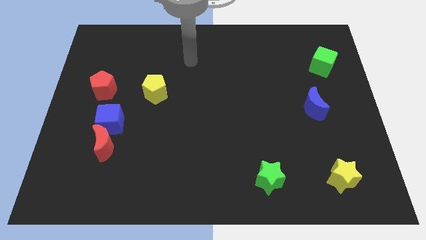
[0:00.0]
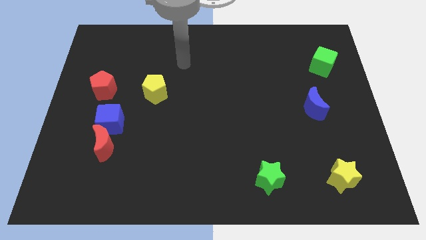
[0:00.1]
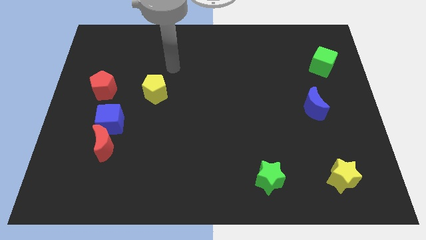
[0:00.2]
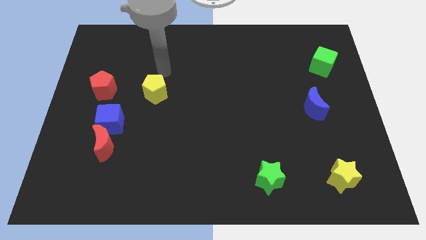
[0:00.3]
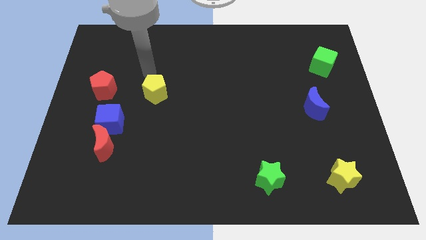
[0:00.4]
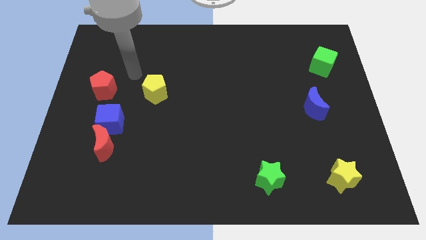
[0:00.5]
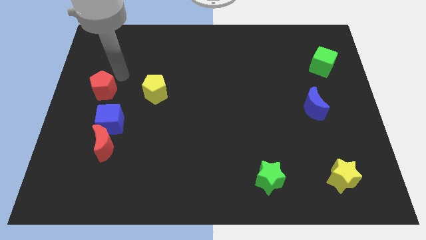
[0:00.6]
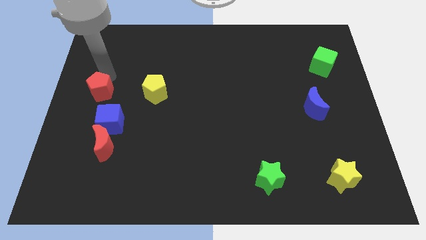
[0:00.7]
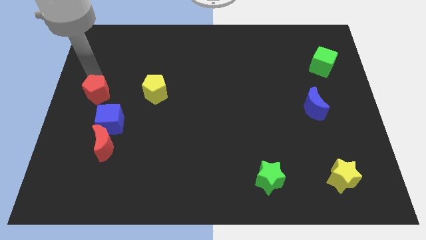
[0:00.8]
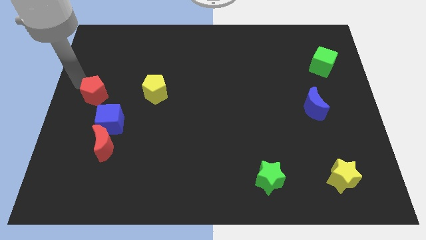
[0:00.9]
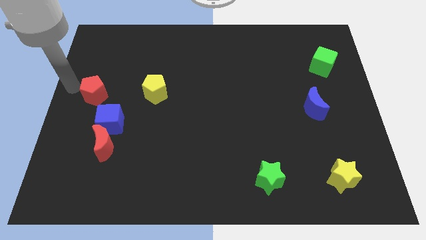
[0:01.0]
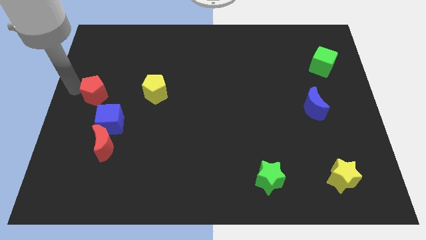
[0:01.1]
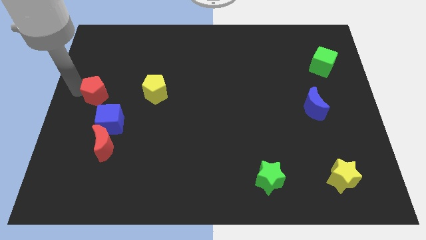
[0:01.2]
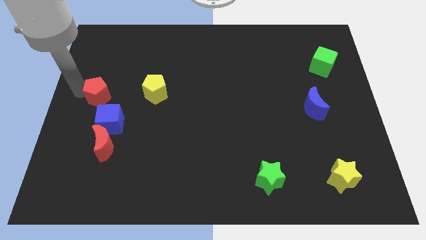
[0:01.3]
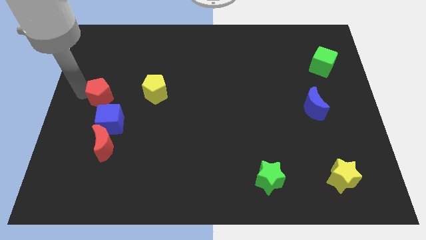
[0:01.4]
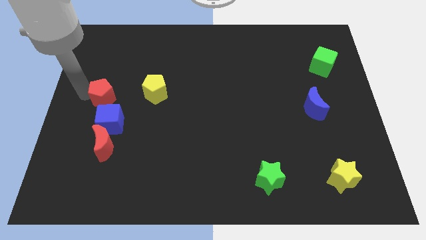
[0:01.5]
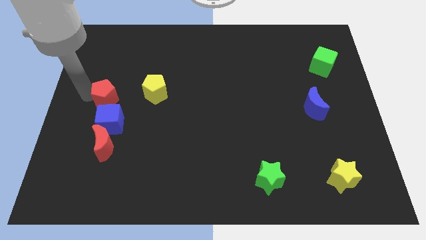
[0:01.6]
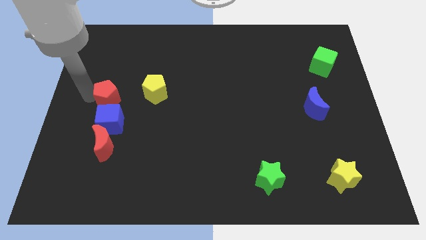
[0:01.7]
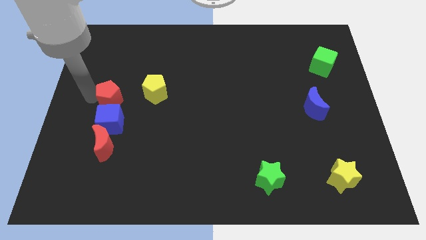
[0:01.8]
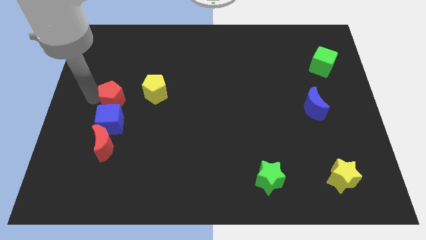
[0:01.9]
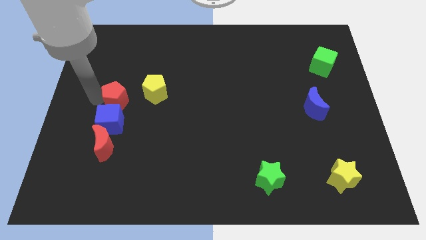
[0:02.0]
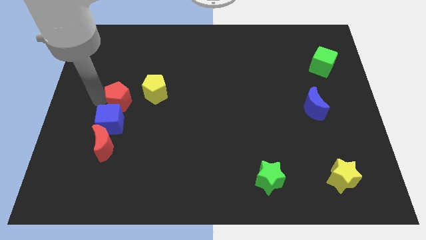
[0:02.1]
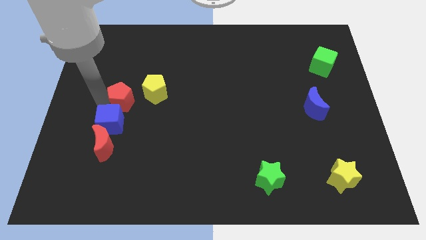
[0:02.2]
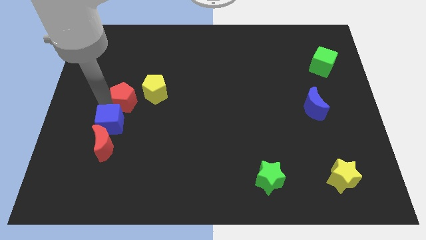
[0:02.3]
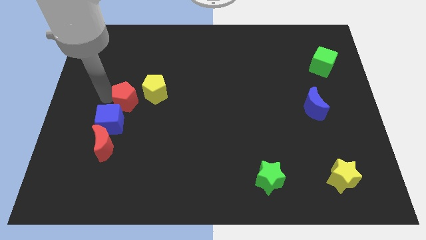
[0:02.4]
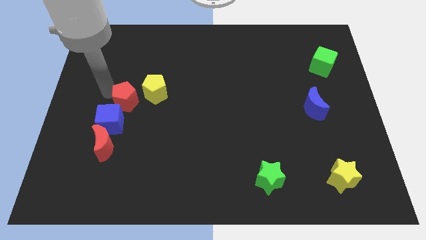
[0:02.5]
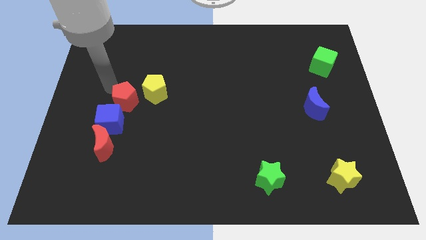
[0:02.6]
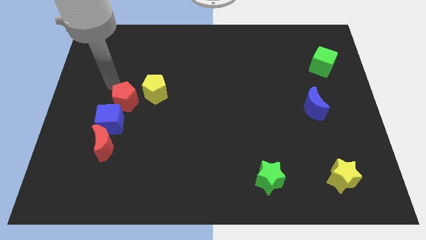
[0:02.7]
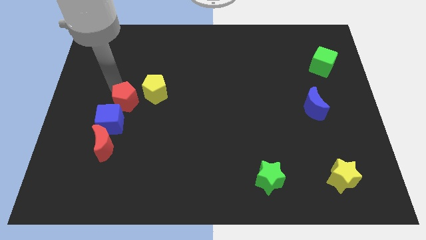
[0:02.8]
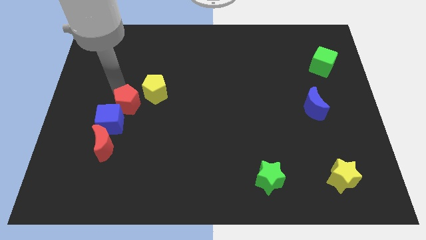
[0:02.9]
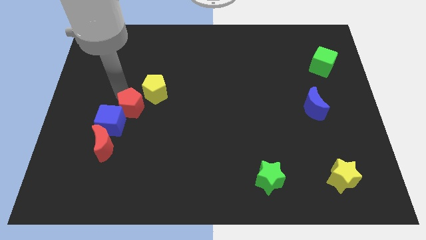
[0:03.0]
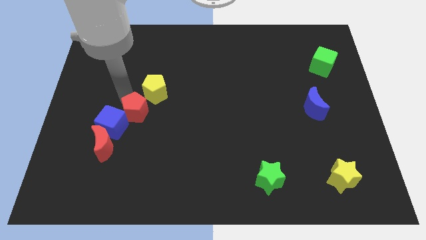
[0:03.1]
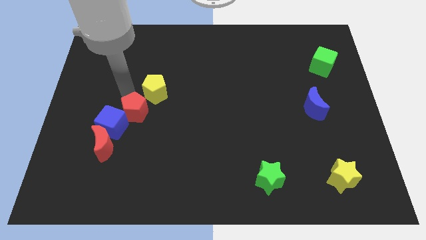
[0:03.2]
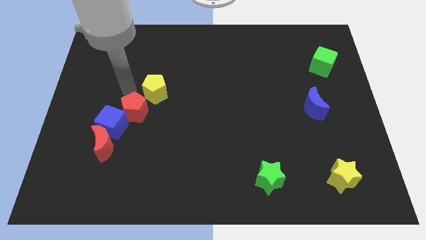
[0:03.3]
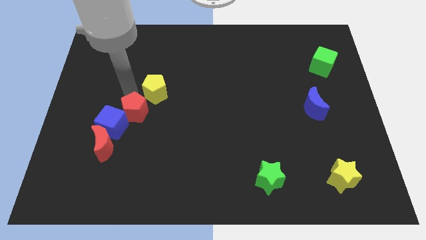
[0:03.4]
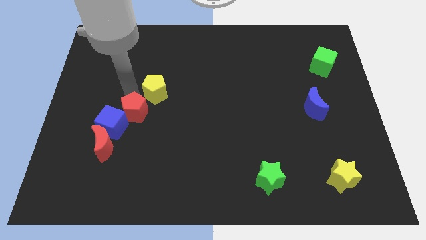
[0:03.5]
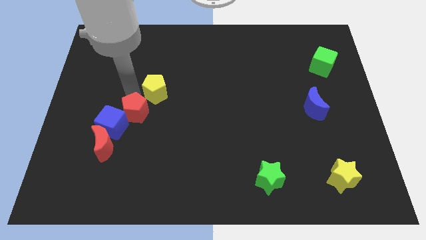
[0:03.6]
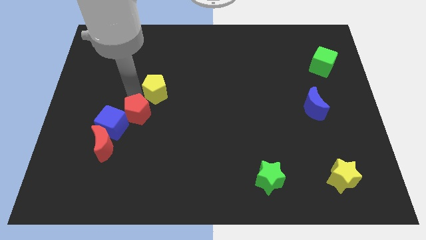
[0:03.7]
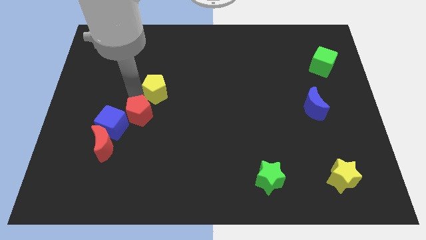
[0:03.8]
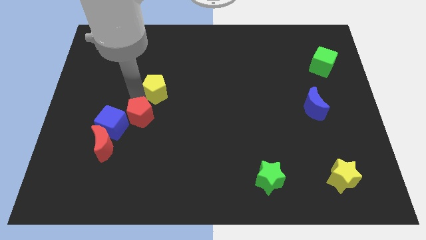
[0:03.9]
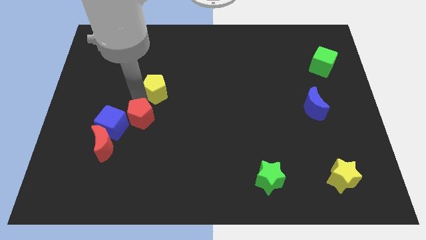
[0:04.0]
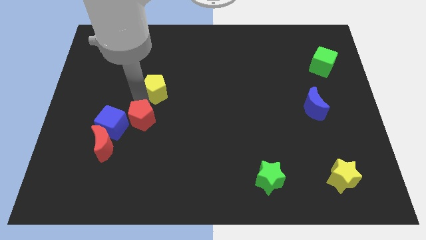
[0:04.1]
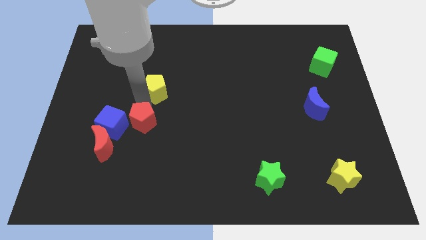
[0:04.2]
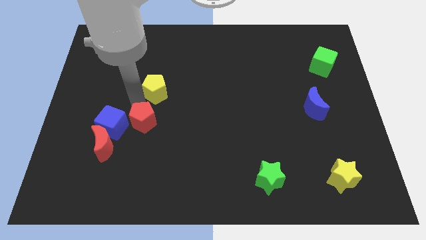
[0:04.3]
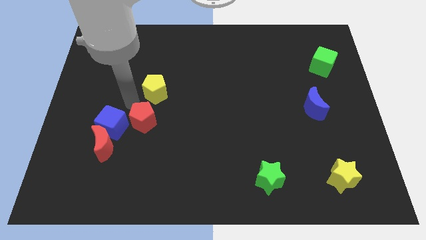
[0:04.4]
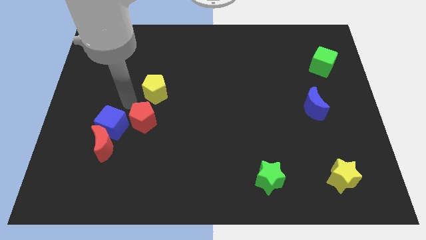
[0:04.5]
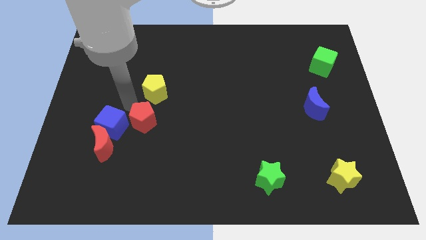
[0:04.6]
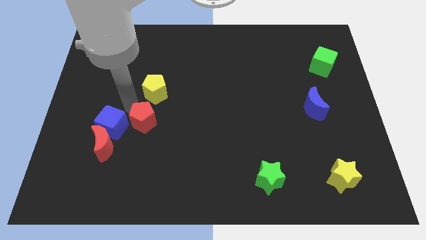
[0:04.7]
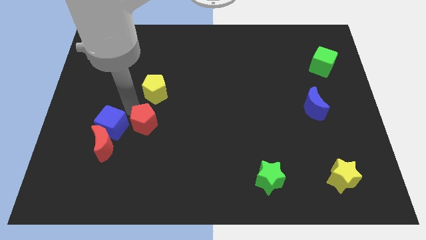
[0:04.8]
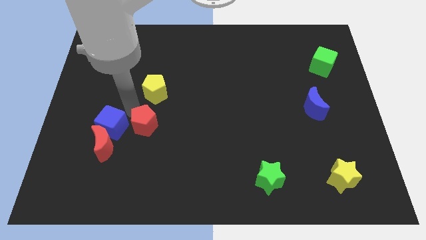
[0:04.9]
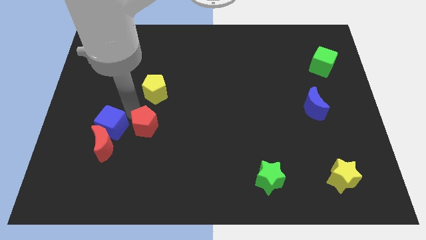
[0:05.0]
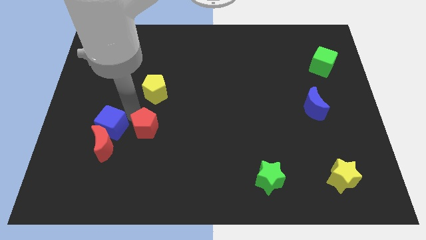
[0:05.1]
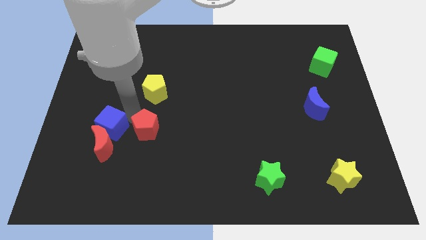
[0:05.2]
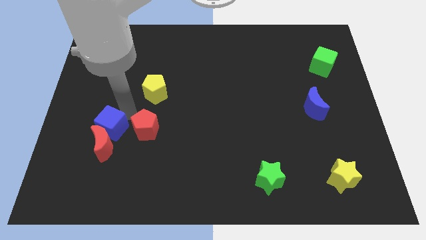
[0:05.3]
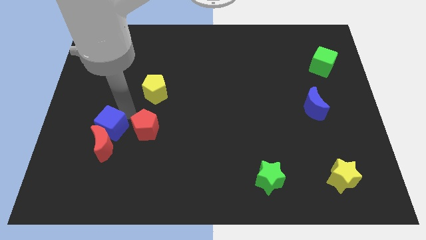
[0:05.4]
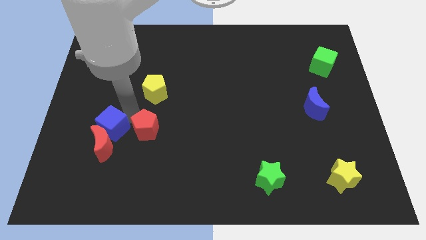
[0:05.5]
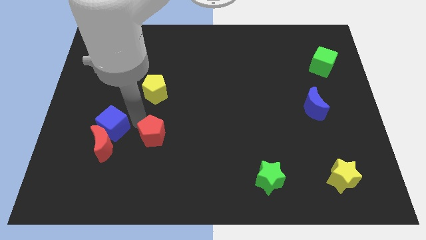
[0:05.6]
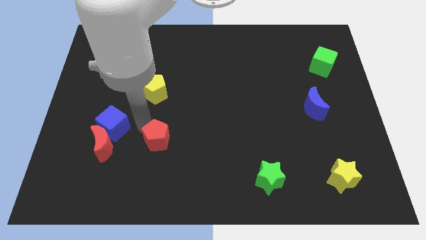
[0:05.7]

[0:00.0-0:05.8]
move the red pentagon down and to the right diagonally

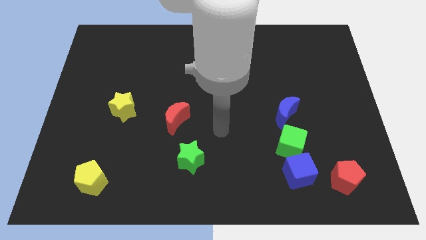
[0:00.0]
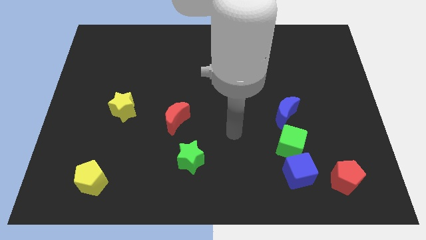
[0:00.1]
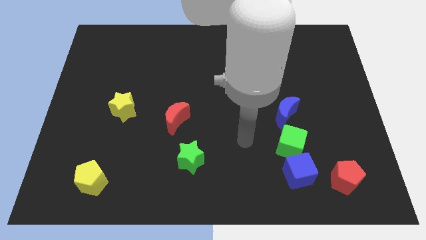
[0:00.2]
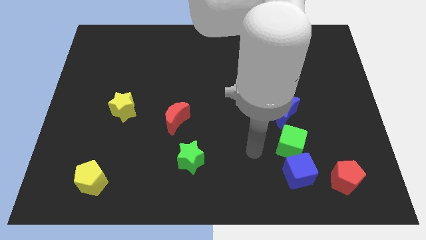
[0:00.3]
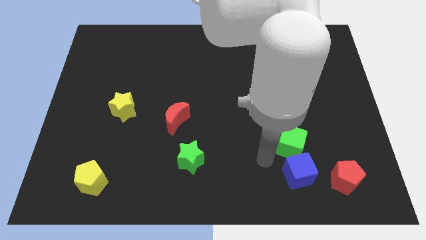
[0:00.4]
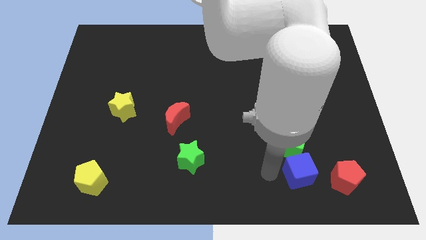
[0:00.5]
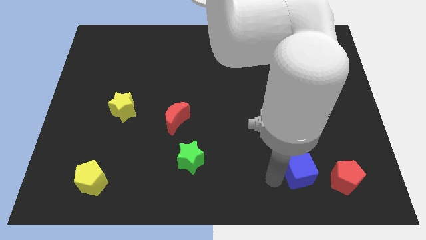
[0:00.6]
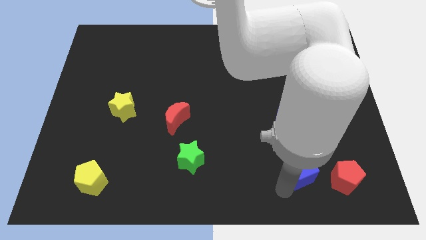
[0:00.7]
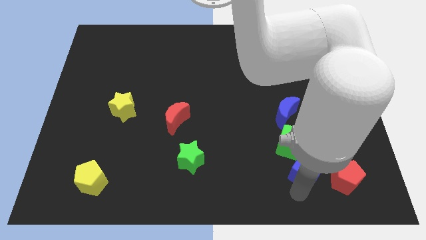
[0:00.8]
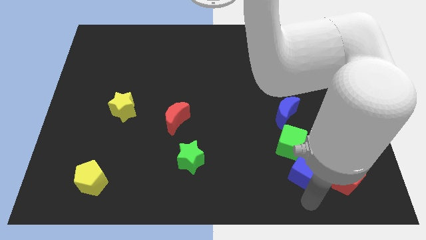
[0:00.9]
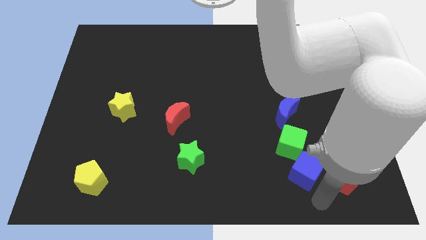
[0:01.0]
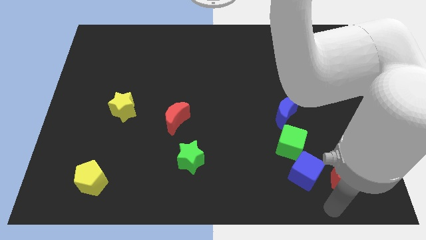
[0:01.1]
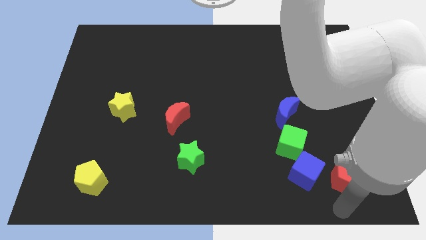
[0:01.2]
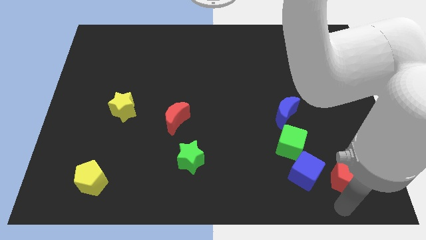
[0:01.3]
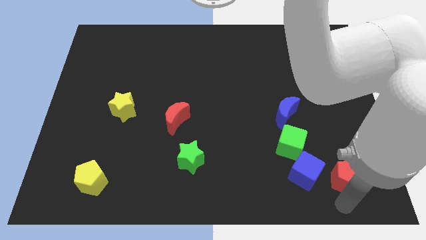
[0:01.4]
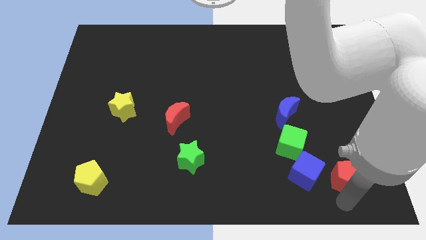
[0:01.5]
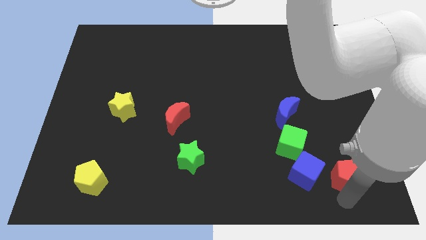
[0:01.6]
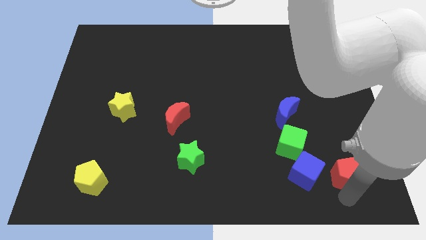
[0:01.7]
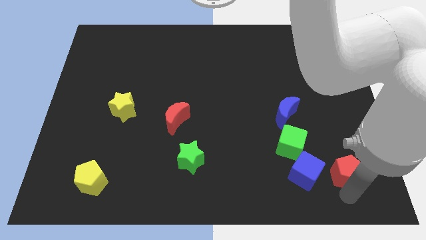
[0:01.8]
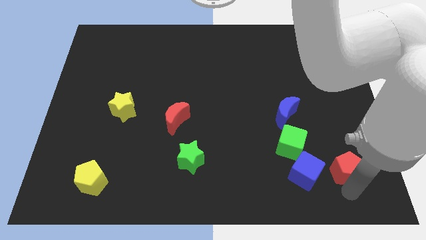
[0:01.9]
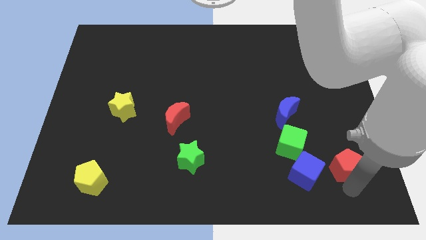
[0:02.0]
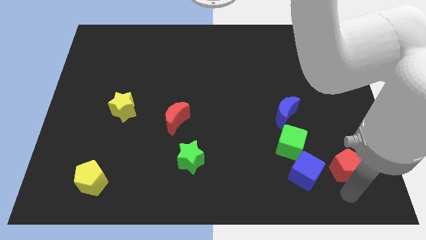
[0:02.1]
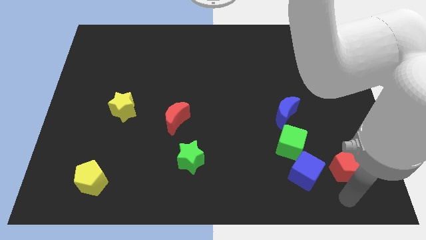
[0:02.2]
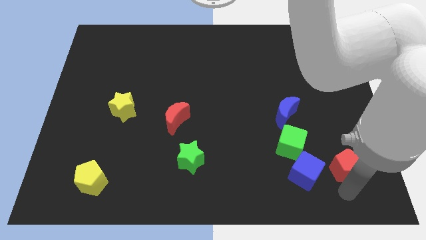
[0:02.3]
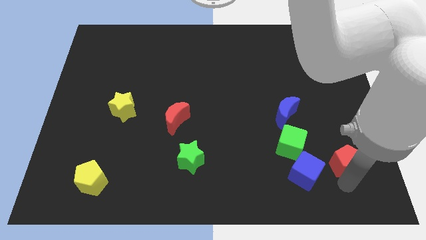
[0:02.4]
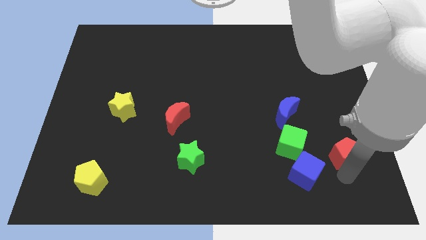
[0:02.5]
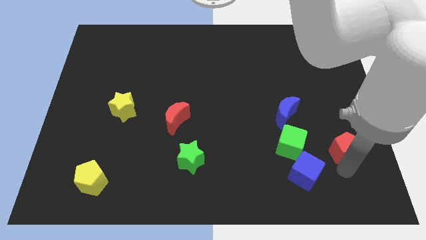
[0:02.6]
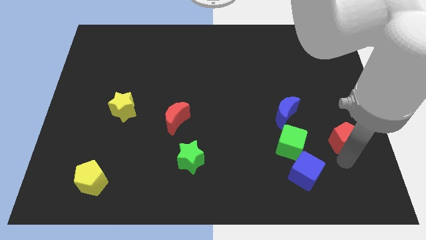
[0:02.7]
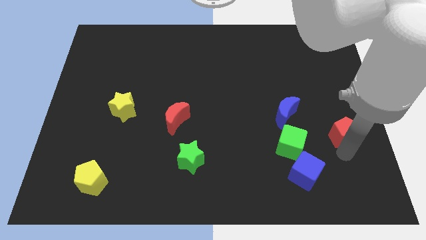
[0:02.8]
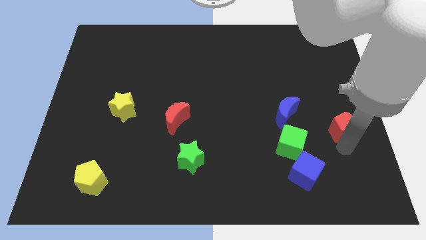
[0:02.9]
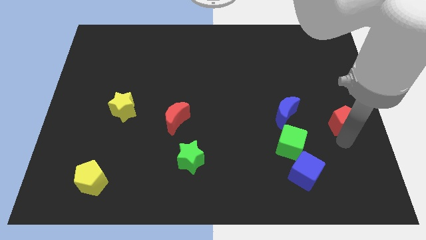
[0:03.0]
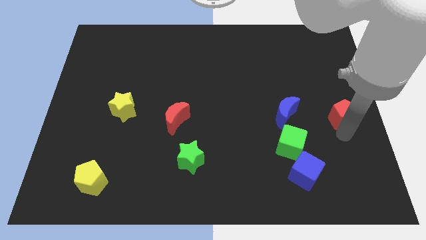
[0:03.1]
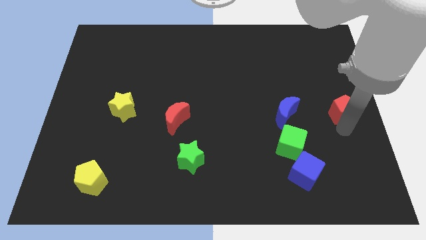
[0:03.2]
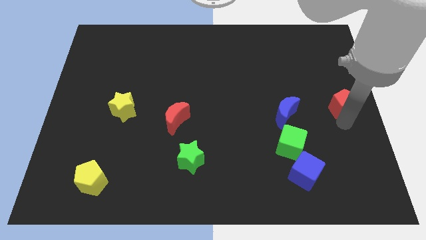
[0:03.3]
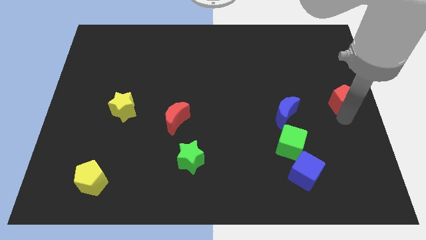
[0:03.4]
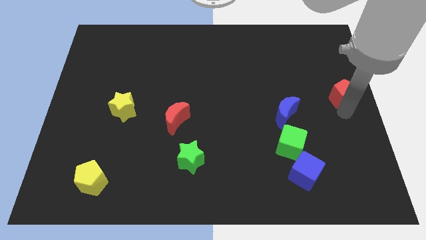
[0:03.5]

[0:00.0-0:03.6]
slide the red pentagon upwards
